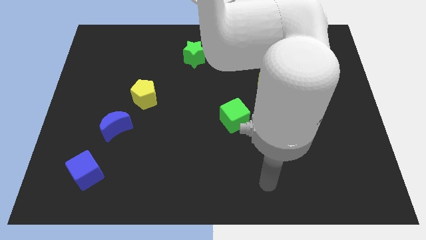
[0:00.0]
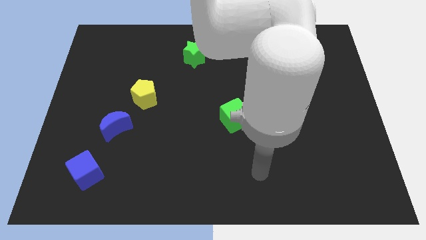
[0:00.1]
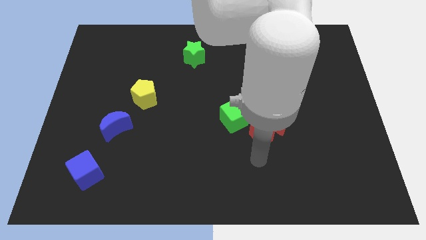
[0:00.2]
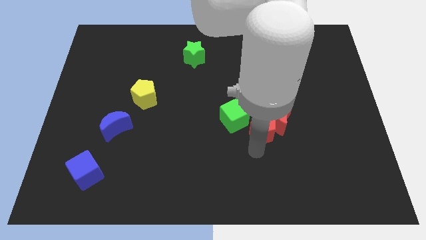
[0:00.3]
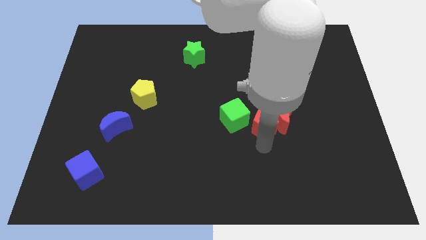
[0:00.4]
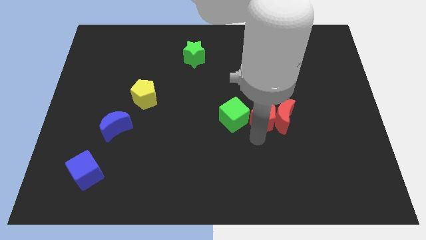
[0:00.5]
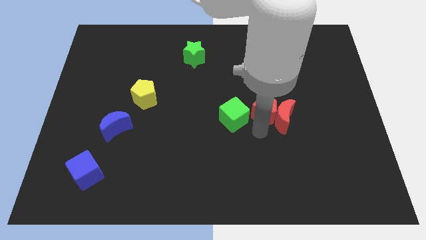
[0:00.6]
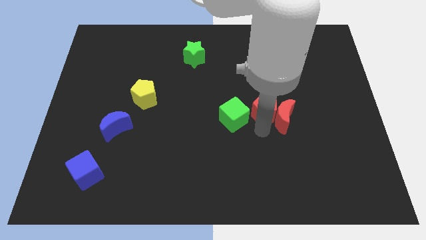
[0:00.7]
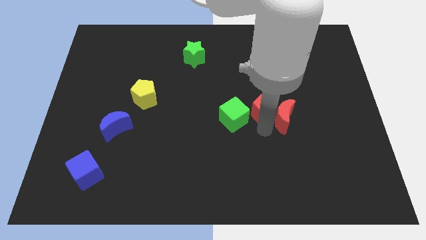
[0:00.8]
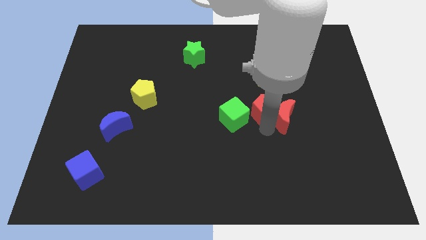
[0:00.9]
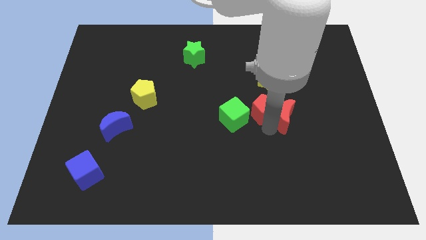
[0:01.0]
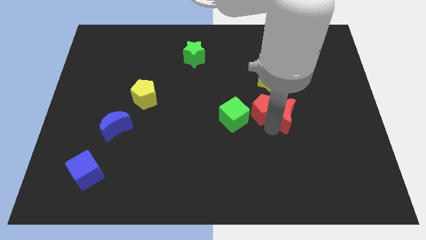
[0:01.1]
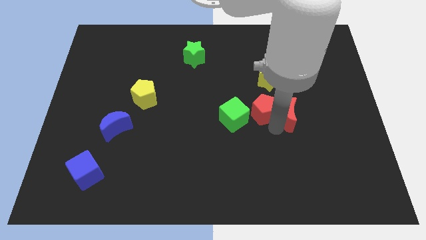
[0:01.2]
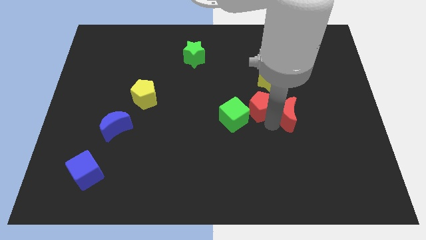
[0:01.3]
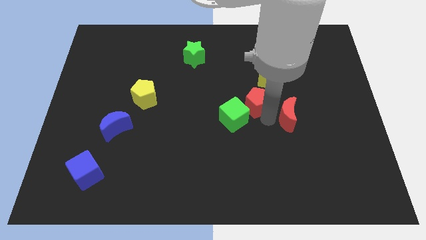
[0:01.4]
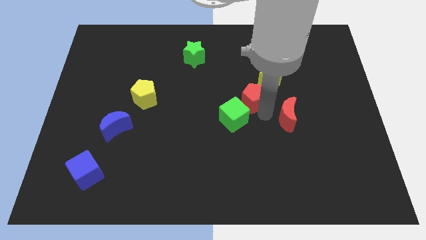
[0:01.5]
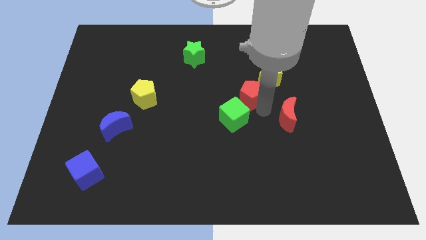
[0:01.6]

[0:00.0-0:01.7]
move the red moon away from the red pentagon

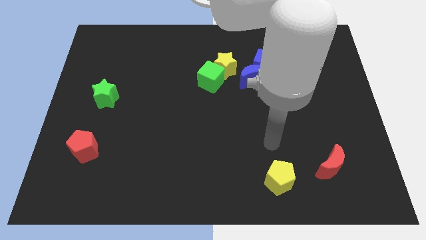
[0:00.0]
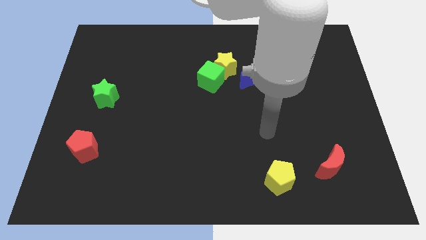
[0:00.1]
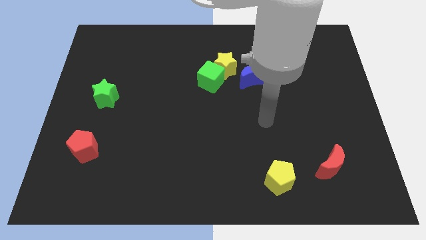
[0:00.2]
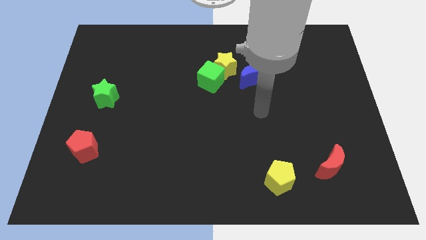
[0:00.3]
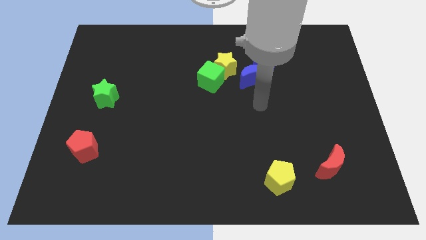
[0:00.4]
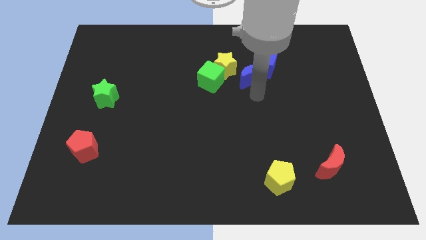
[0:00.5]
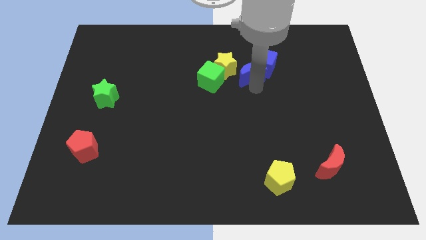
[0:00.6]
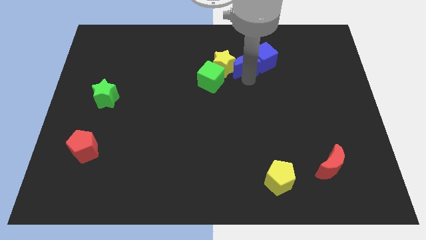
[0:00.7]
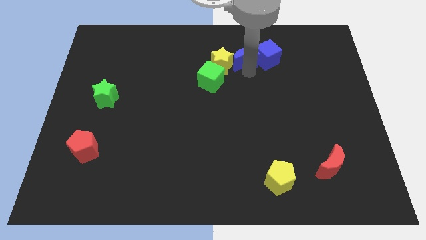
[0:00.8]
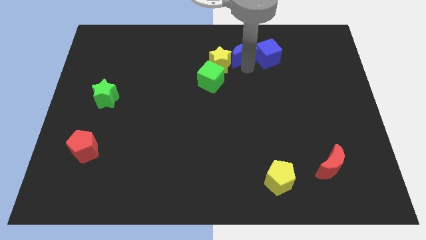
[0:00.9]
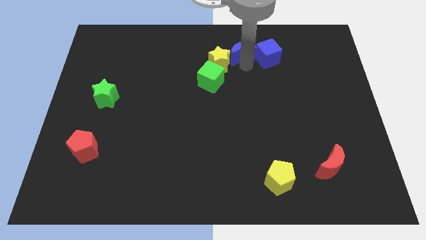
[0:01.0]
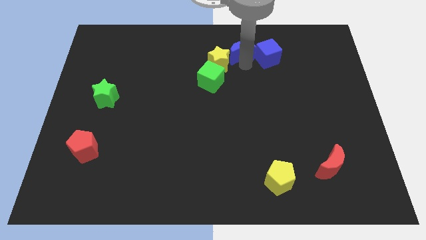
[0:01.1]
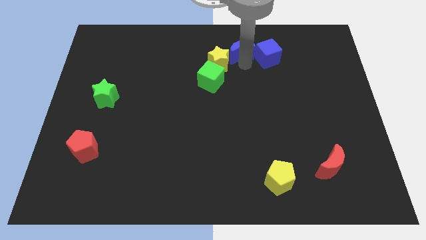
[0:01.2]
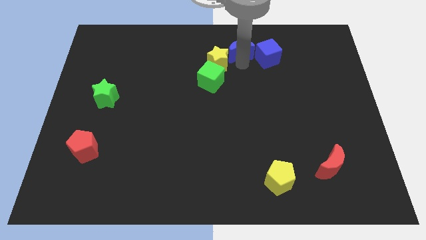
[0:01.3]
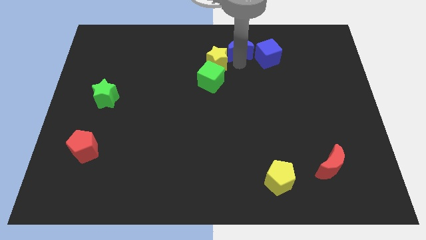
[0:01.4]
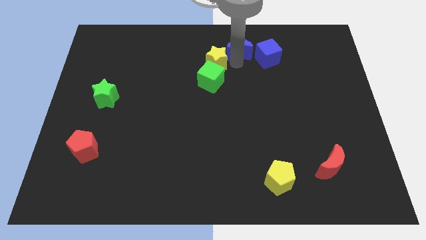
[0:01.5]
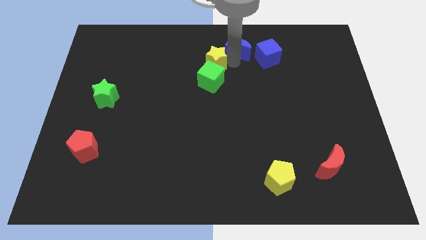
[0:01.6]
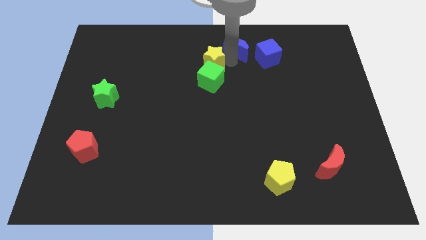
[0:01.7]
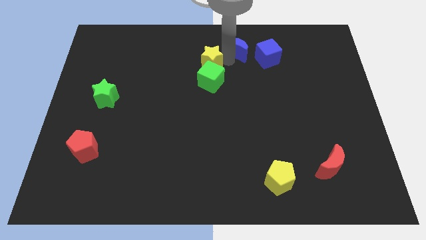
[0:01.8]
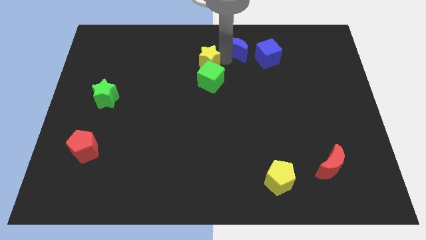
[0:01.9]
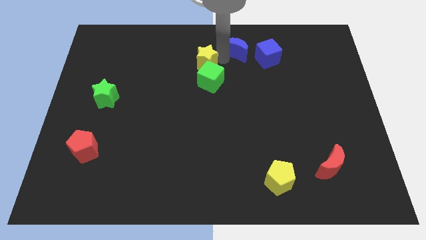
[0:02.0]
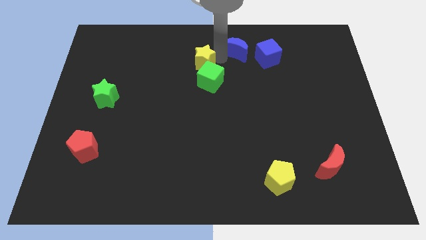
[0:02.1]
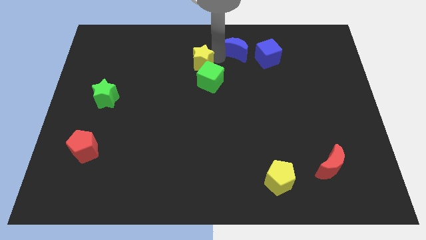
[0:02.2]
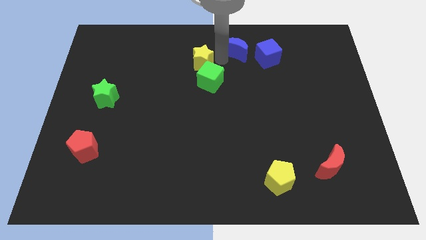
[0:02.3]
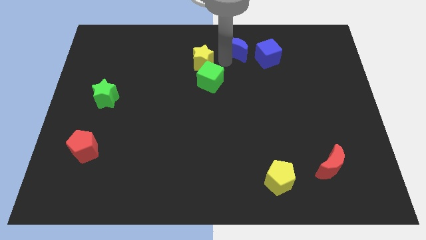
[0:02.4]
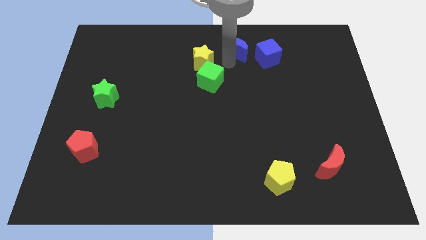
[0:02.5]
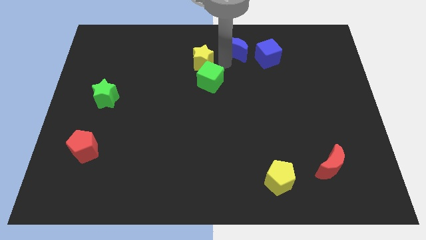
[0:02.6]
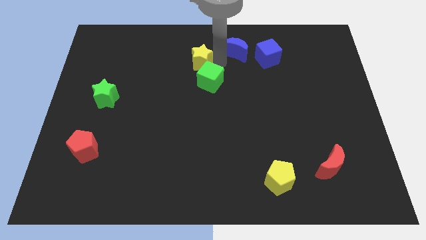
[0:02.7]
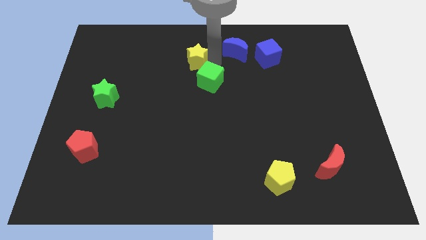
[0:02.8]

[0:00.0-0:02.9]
separate the yellow star from the green cube, blue moon, and blue cube

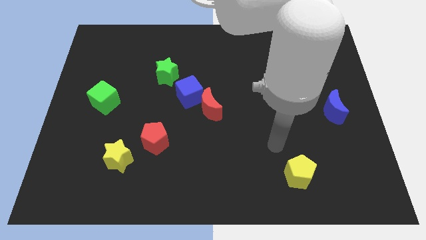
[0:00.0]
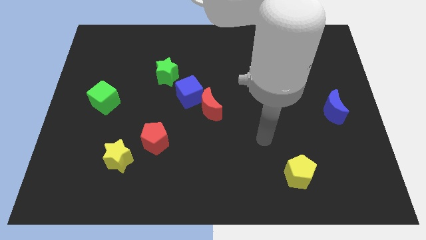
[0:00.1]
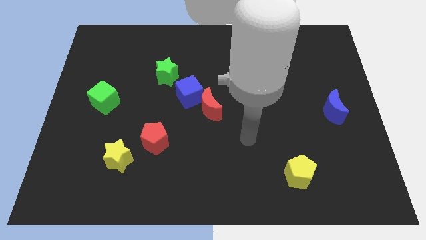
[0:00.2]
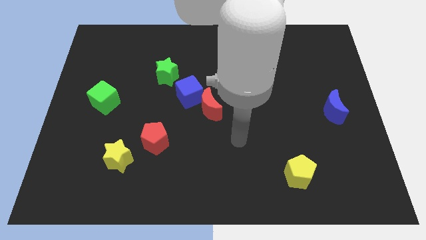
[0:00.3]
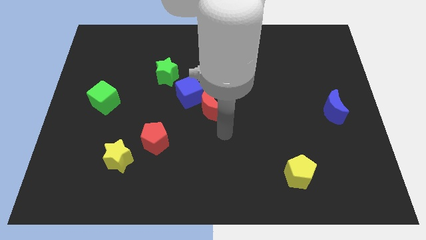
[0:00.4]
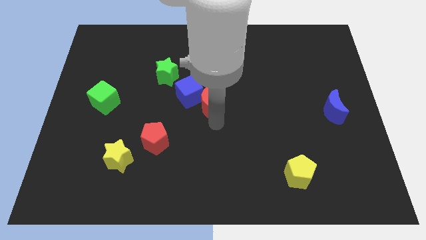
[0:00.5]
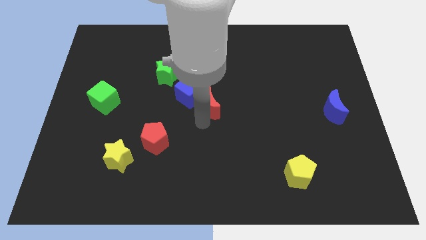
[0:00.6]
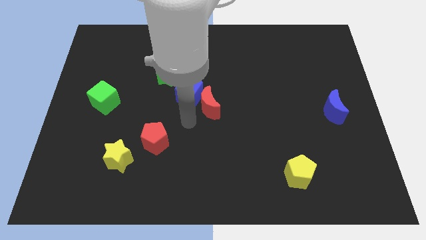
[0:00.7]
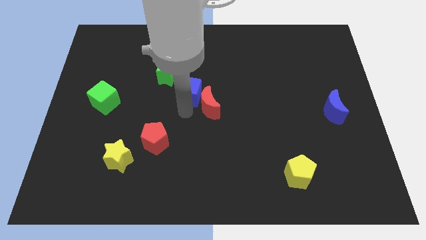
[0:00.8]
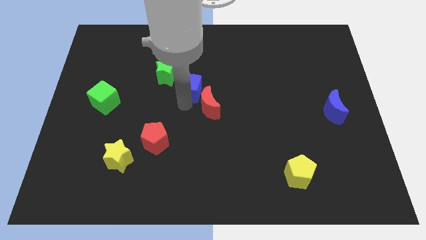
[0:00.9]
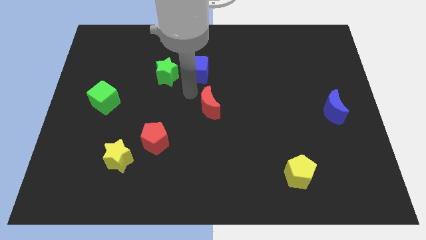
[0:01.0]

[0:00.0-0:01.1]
separate the red moon from the blue cube

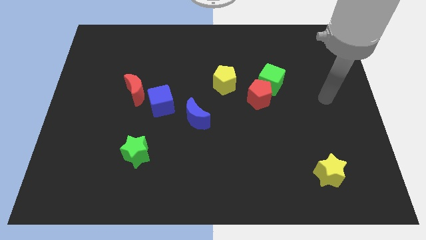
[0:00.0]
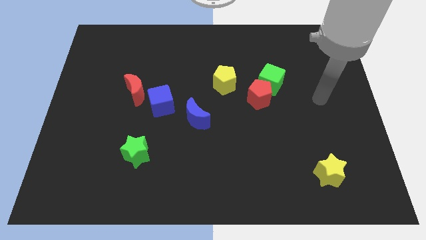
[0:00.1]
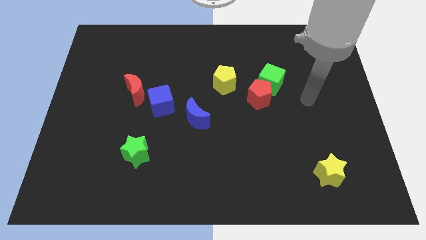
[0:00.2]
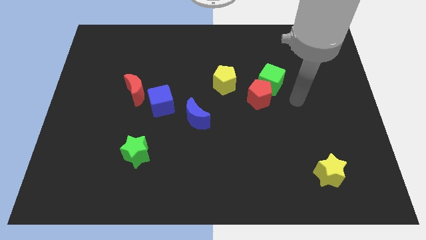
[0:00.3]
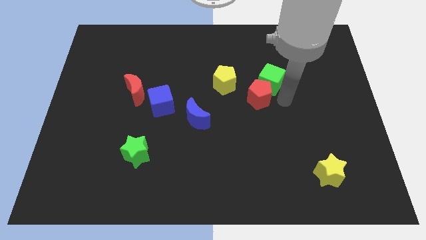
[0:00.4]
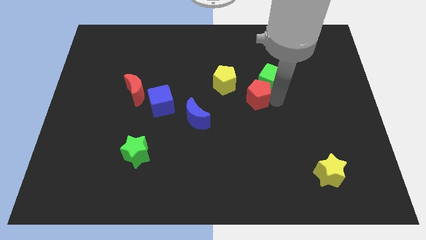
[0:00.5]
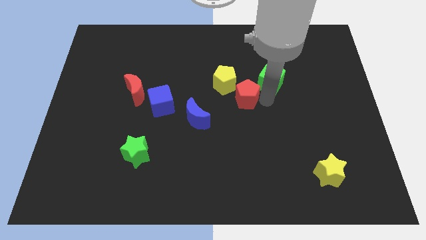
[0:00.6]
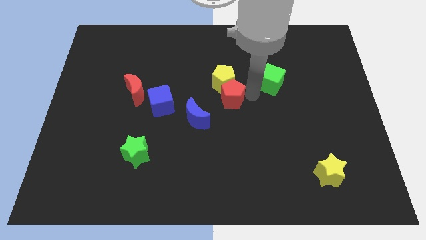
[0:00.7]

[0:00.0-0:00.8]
move the green cube away from the red pentagon

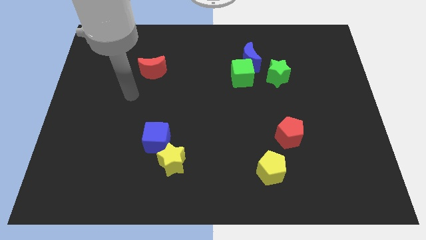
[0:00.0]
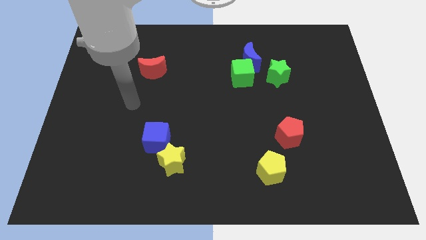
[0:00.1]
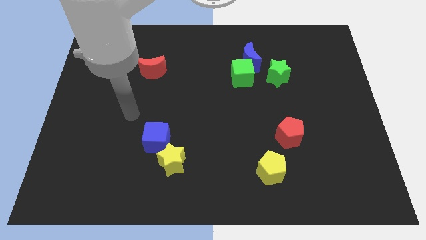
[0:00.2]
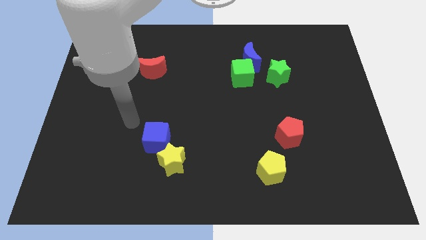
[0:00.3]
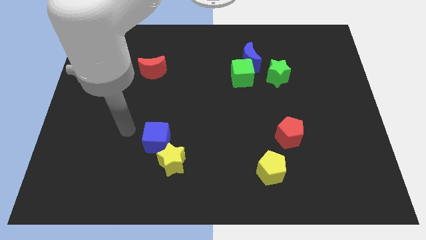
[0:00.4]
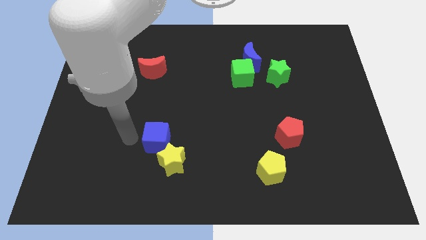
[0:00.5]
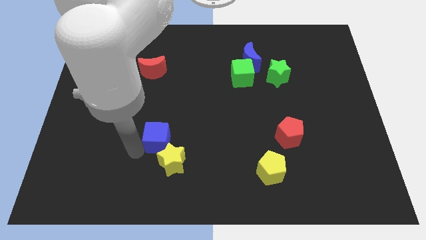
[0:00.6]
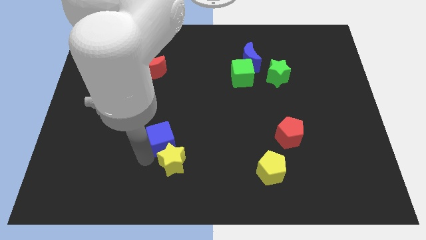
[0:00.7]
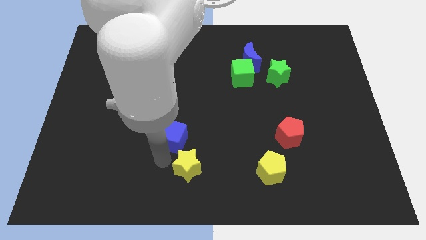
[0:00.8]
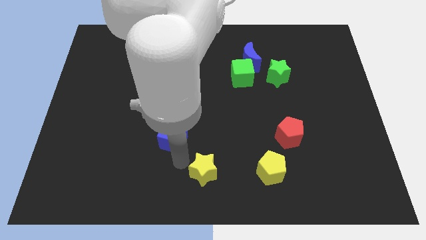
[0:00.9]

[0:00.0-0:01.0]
separate the blue cube from the yellow star

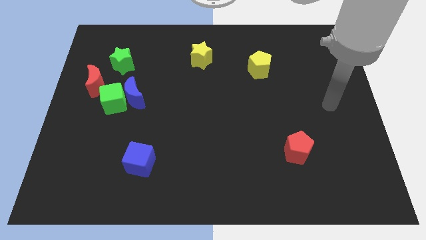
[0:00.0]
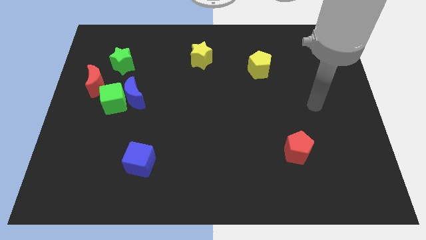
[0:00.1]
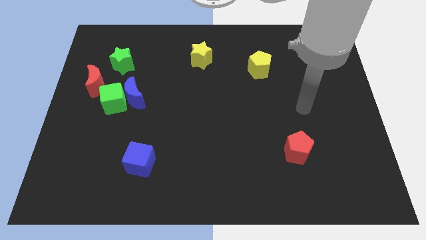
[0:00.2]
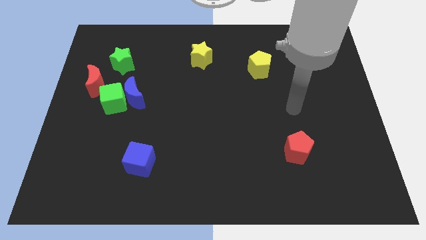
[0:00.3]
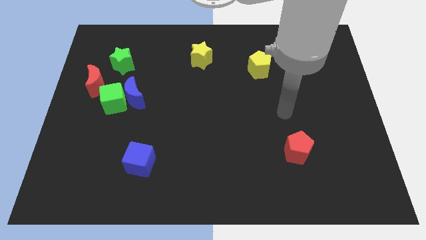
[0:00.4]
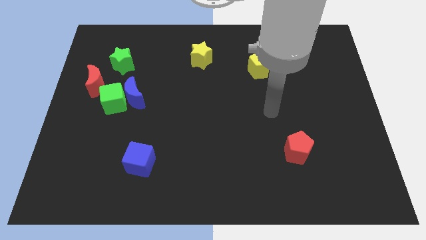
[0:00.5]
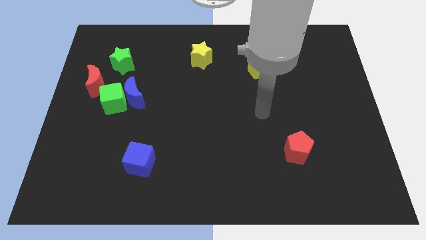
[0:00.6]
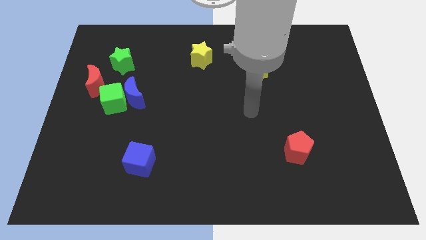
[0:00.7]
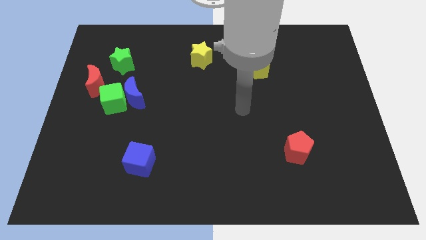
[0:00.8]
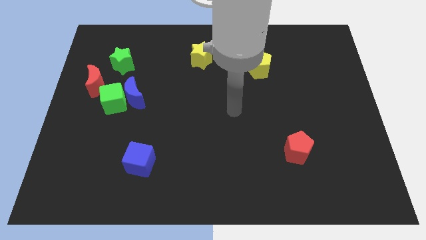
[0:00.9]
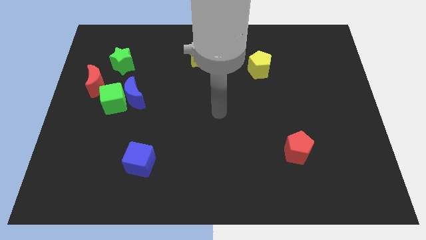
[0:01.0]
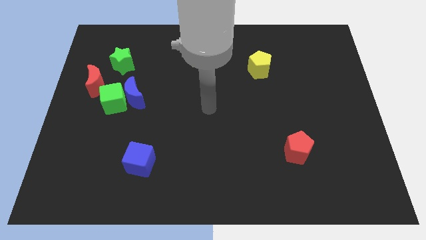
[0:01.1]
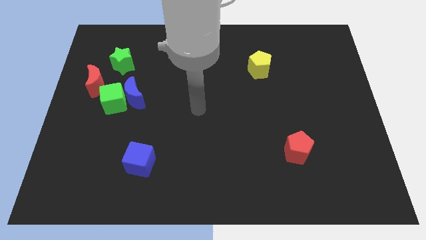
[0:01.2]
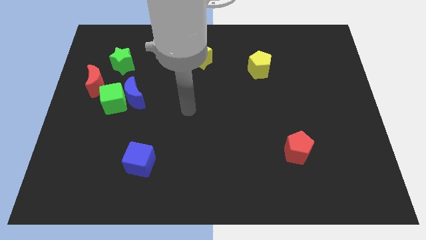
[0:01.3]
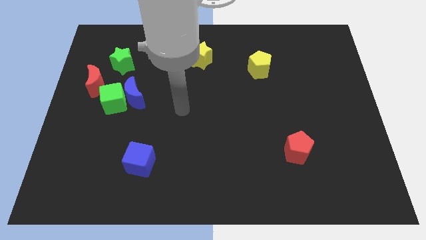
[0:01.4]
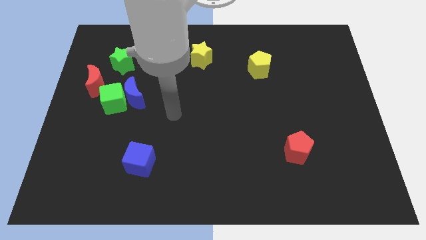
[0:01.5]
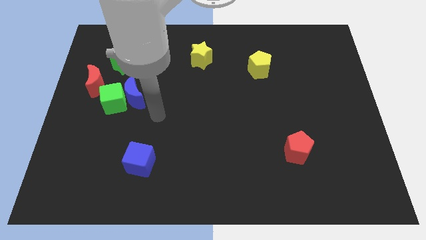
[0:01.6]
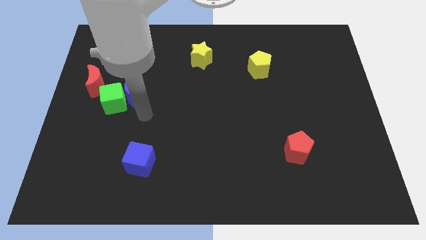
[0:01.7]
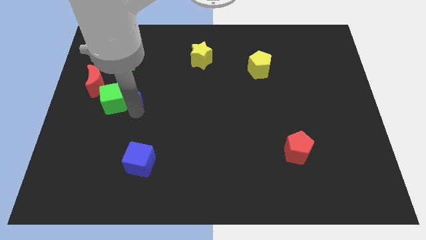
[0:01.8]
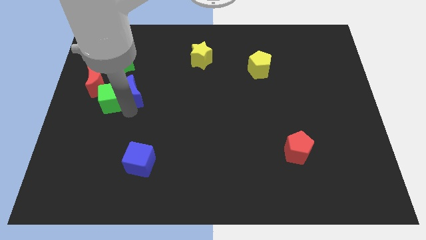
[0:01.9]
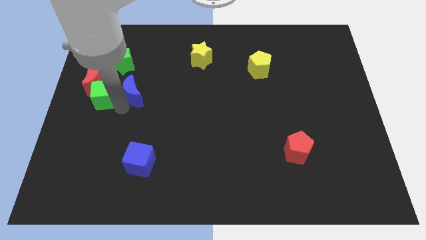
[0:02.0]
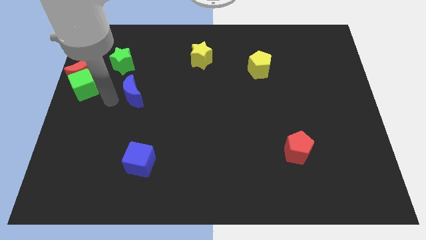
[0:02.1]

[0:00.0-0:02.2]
pull the blue moon apart from the green cube
